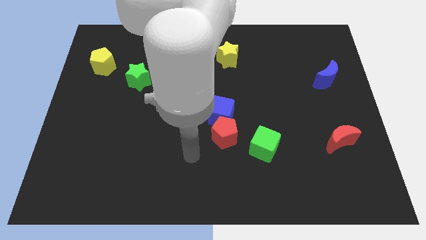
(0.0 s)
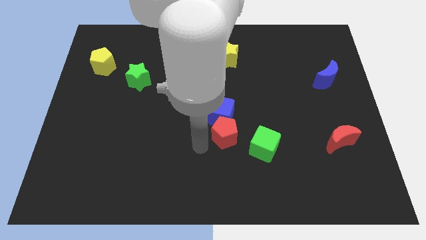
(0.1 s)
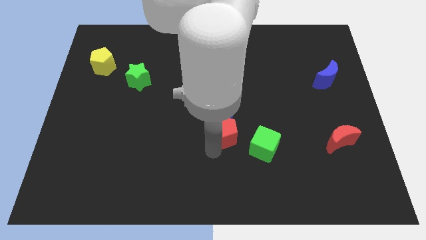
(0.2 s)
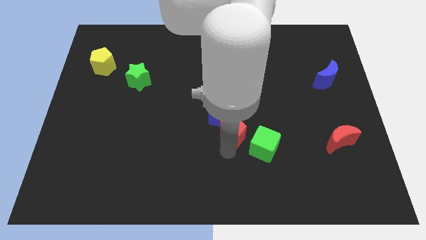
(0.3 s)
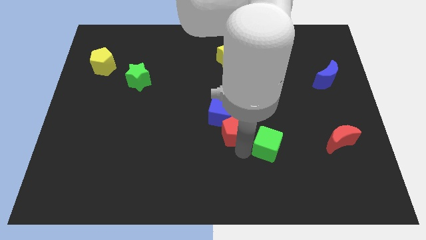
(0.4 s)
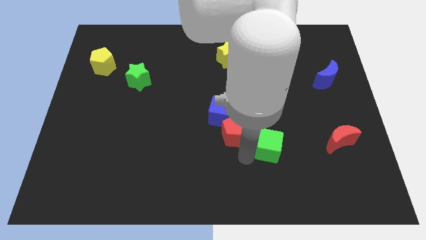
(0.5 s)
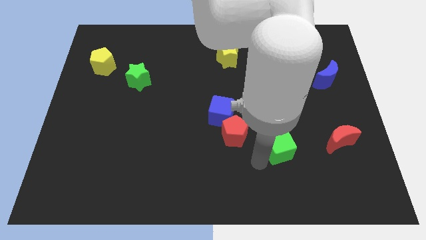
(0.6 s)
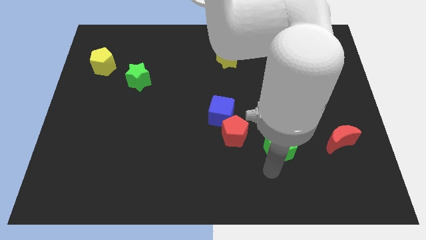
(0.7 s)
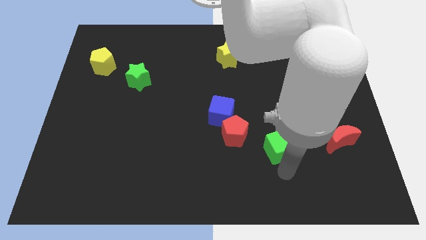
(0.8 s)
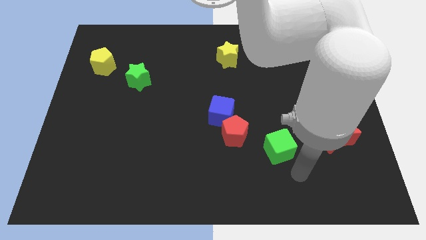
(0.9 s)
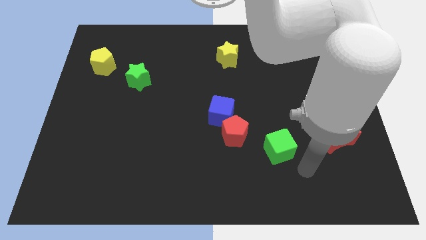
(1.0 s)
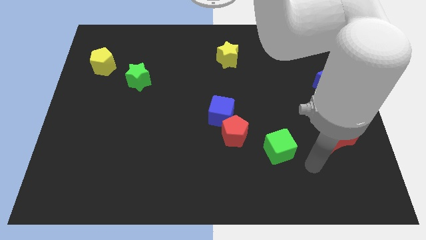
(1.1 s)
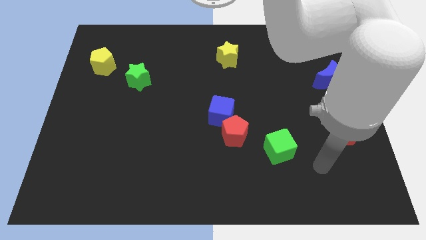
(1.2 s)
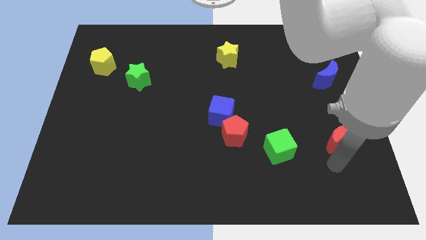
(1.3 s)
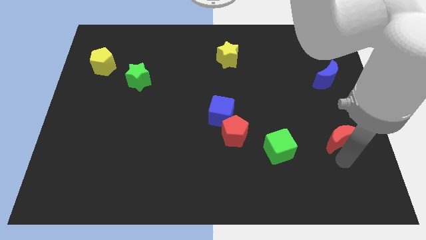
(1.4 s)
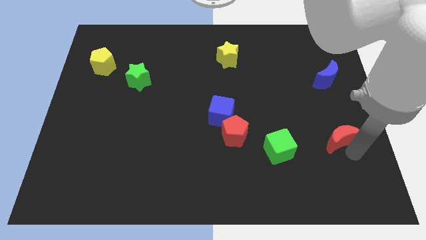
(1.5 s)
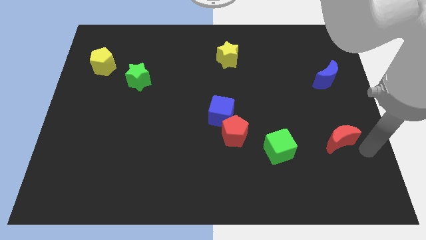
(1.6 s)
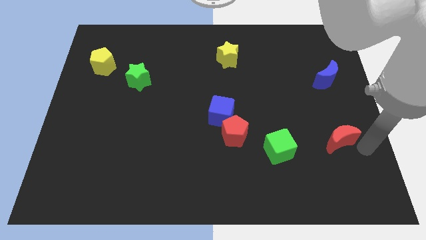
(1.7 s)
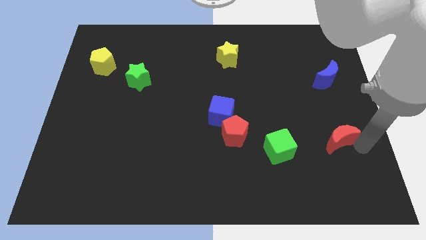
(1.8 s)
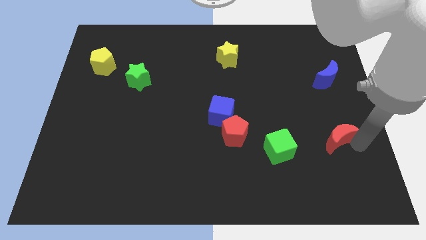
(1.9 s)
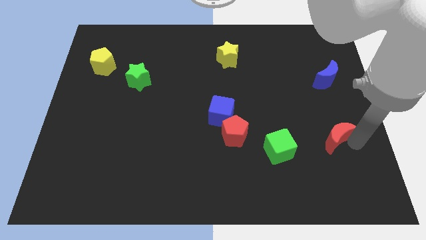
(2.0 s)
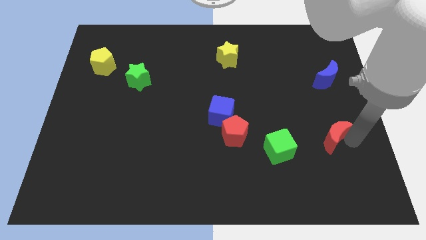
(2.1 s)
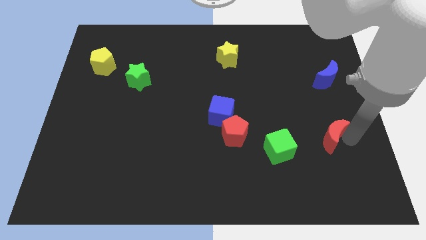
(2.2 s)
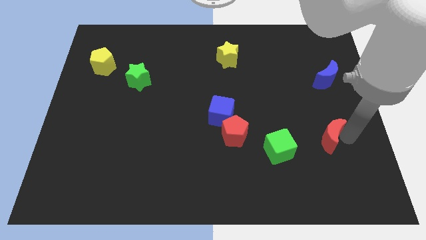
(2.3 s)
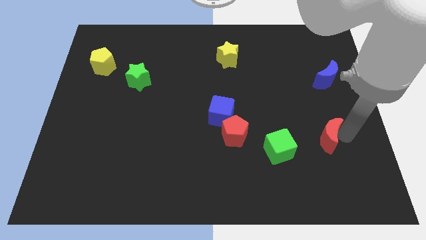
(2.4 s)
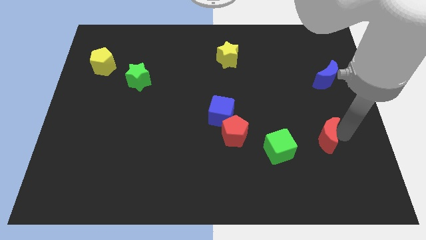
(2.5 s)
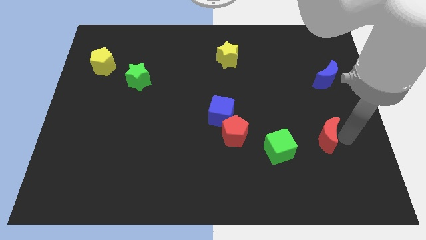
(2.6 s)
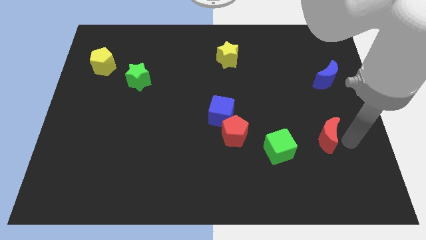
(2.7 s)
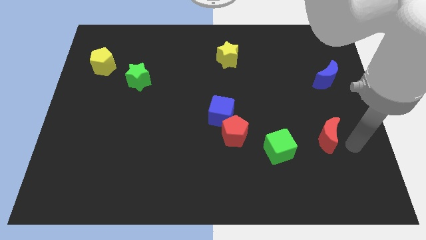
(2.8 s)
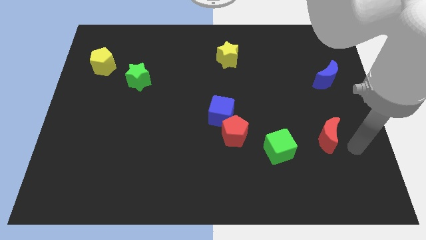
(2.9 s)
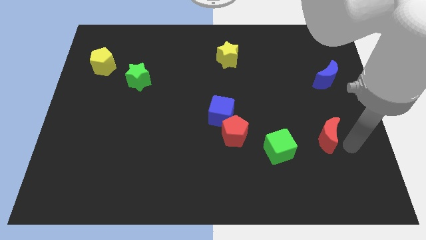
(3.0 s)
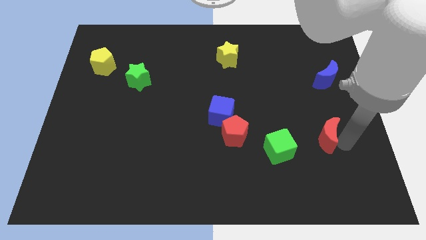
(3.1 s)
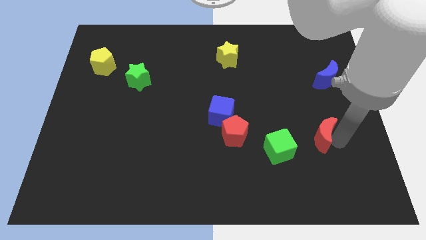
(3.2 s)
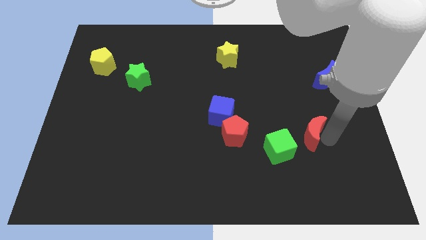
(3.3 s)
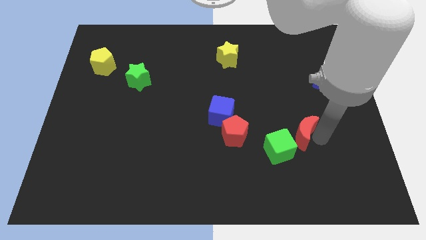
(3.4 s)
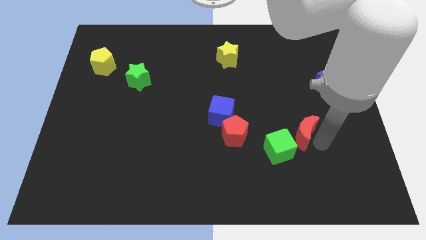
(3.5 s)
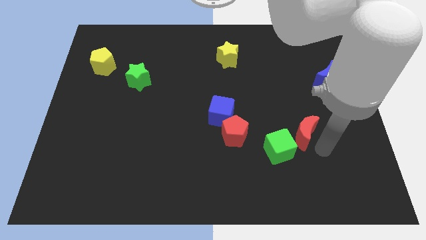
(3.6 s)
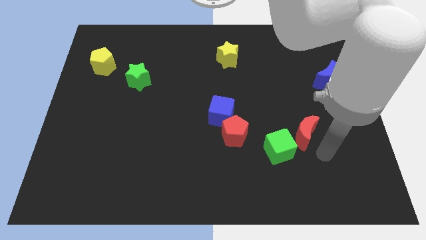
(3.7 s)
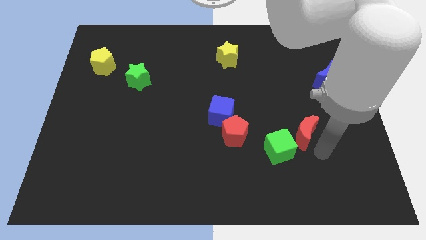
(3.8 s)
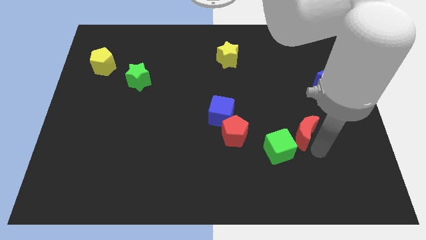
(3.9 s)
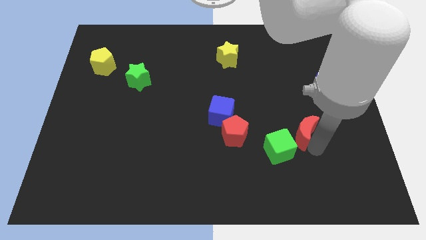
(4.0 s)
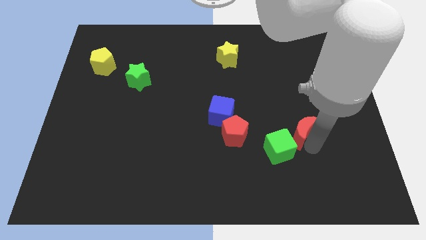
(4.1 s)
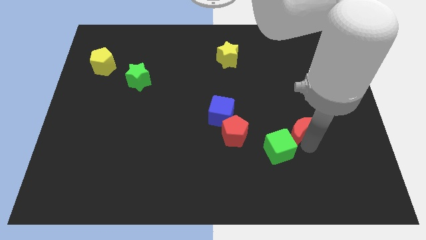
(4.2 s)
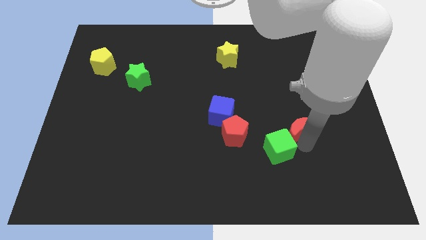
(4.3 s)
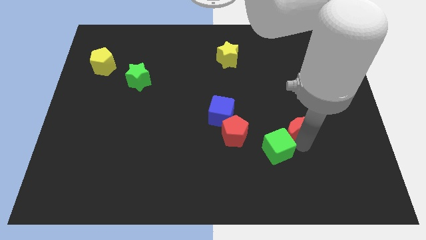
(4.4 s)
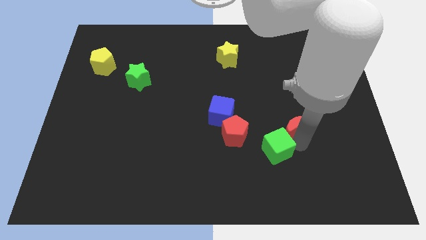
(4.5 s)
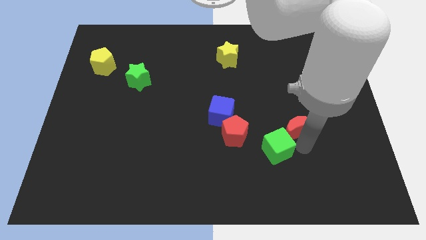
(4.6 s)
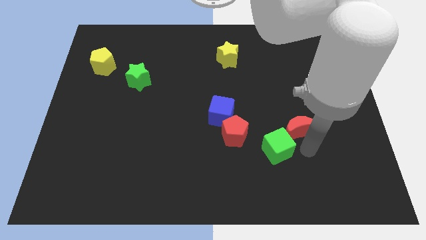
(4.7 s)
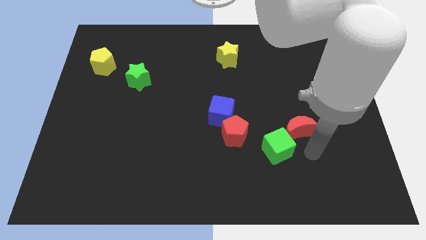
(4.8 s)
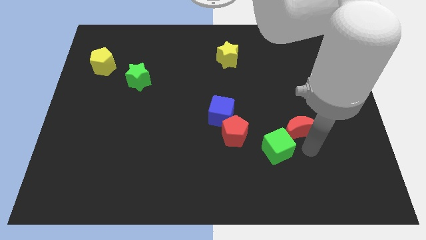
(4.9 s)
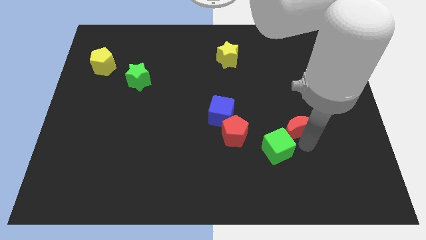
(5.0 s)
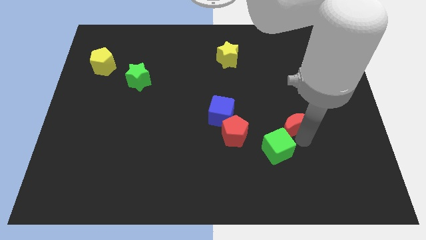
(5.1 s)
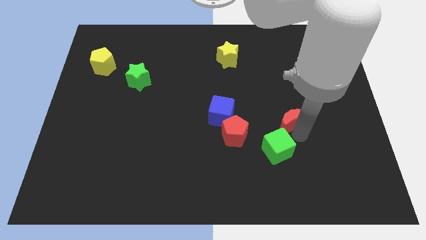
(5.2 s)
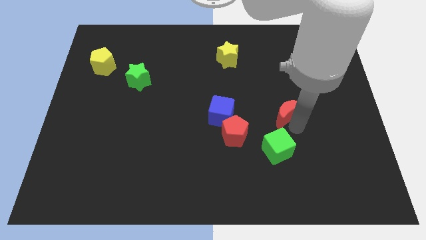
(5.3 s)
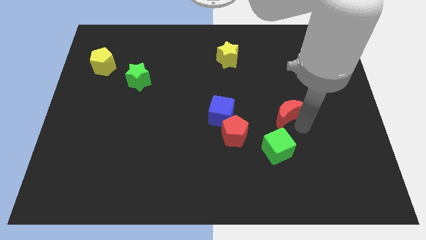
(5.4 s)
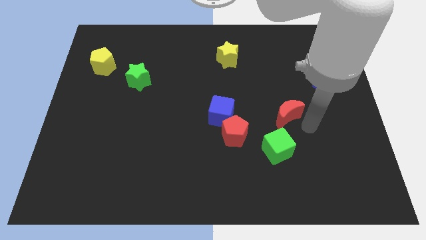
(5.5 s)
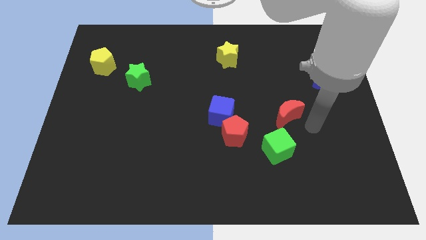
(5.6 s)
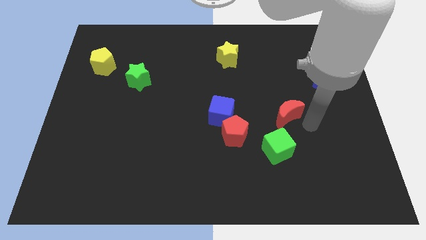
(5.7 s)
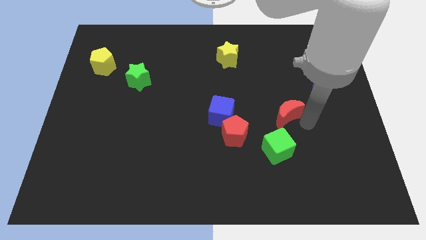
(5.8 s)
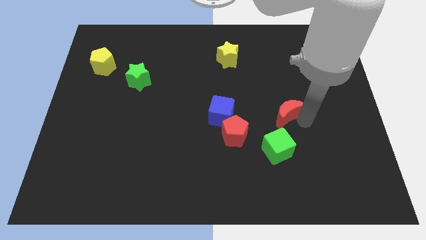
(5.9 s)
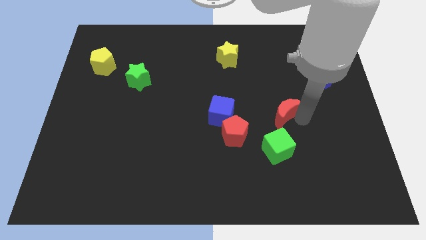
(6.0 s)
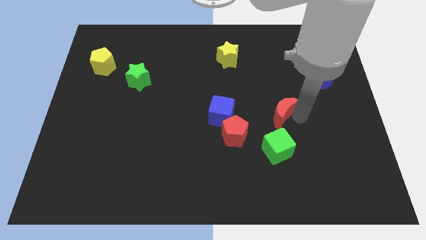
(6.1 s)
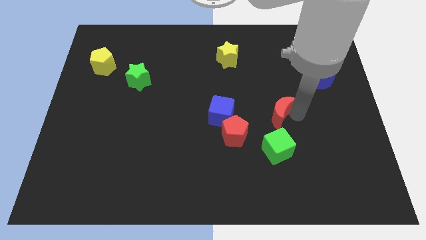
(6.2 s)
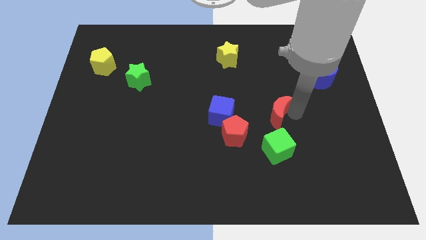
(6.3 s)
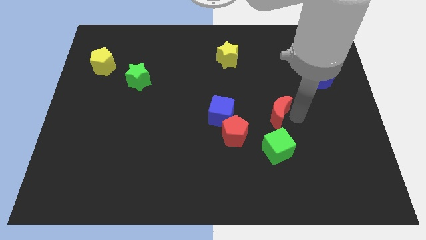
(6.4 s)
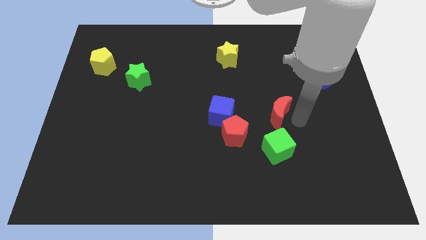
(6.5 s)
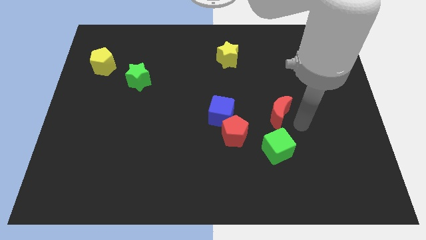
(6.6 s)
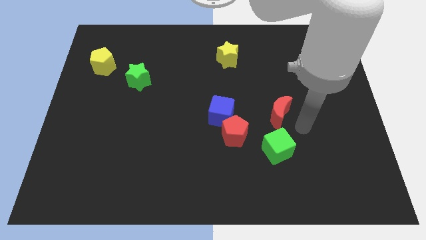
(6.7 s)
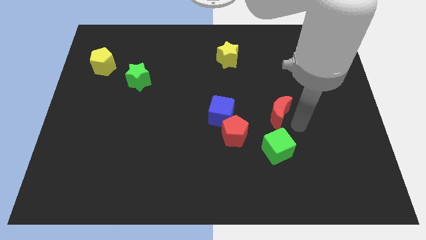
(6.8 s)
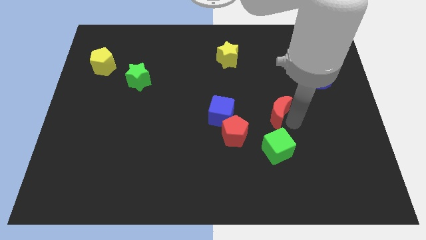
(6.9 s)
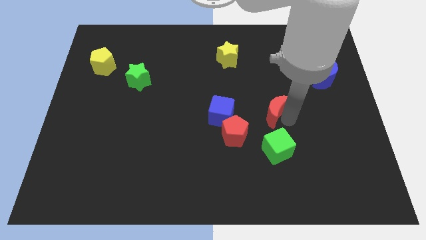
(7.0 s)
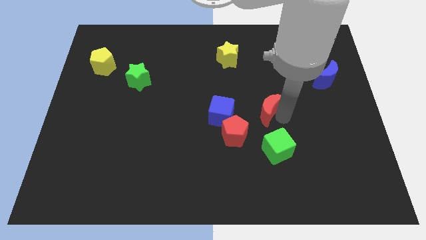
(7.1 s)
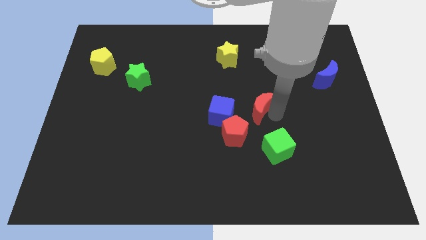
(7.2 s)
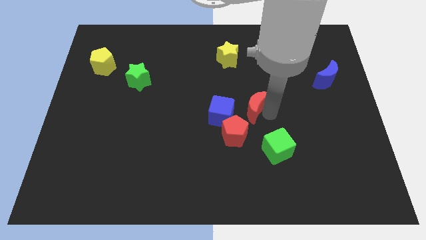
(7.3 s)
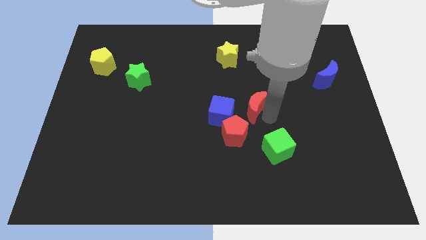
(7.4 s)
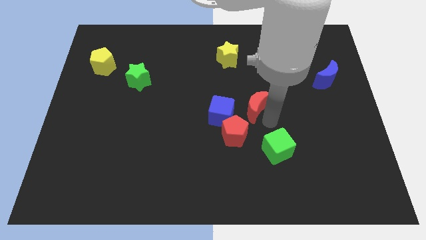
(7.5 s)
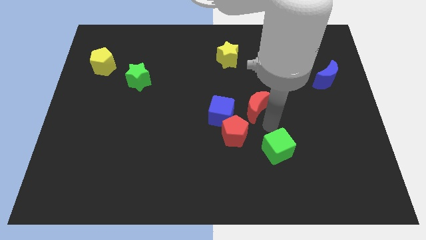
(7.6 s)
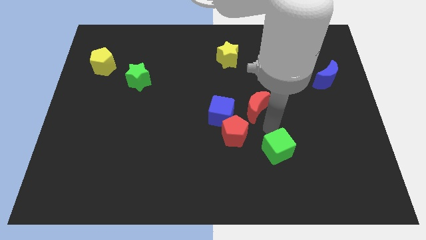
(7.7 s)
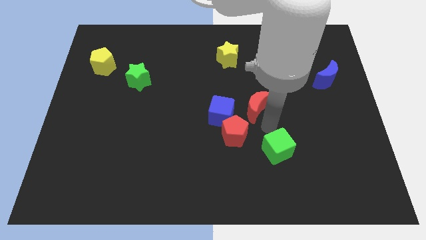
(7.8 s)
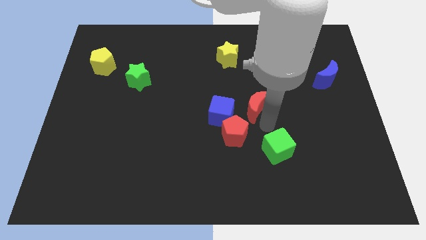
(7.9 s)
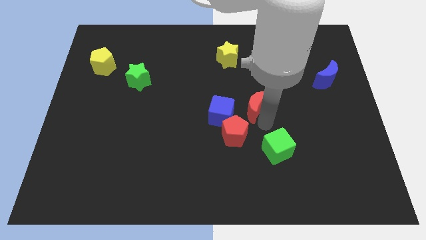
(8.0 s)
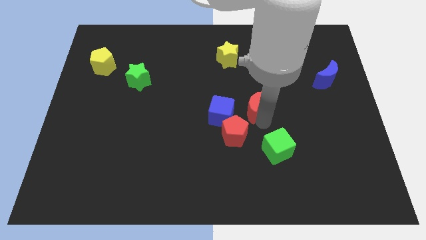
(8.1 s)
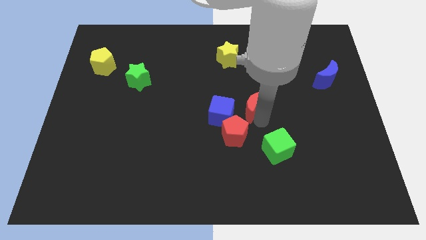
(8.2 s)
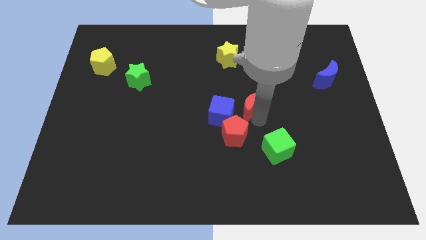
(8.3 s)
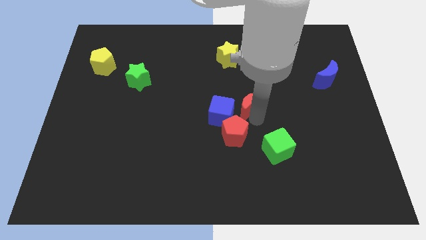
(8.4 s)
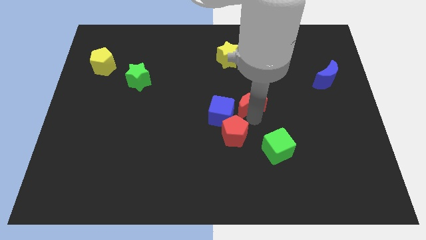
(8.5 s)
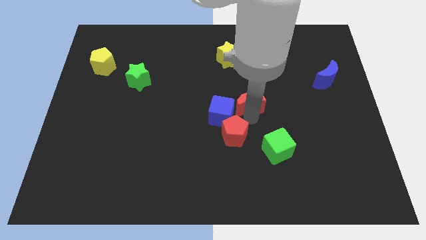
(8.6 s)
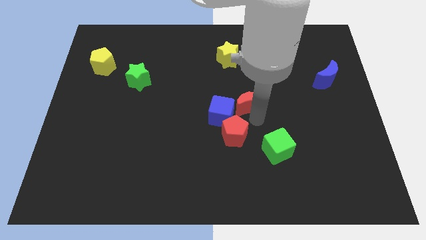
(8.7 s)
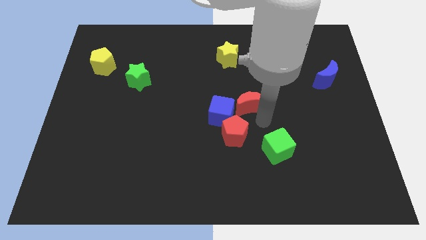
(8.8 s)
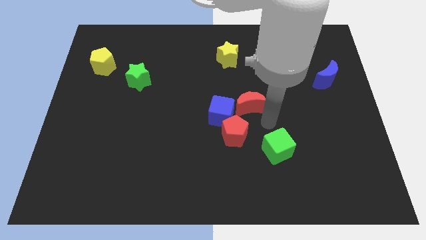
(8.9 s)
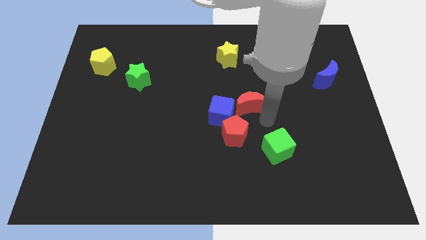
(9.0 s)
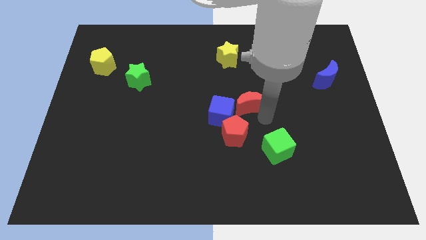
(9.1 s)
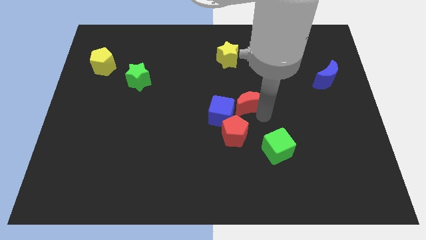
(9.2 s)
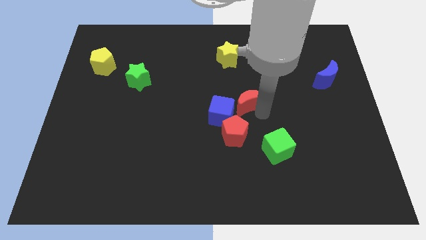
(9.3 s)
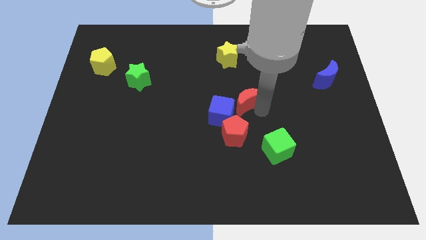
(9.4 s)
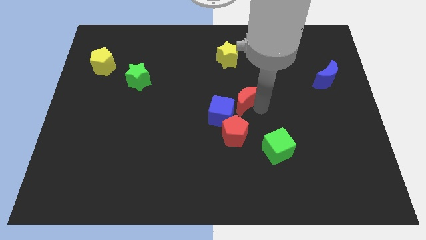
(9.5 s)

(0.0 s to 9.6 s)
put the red moon to the bottom of the yellow star
